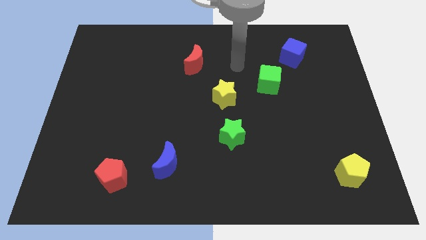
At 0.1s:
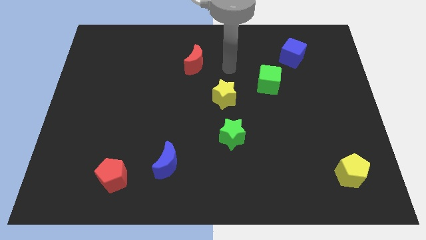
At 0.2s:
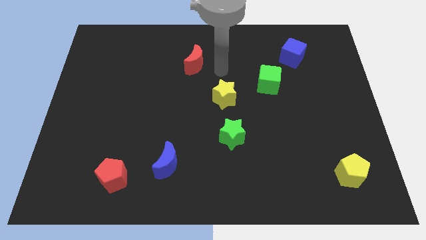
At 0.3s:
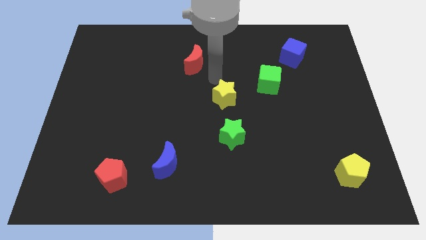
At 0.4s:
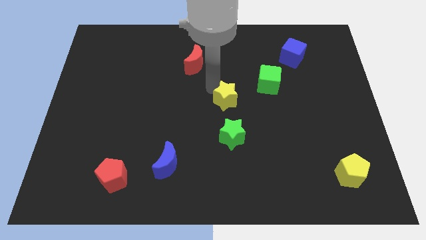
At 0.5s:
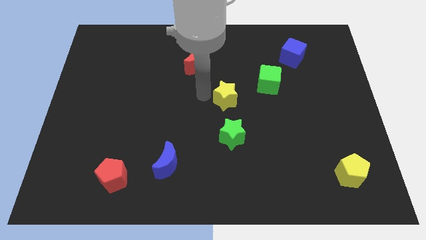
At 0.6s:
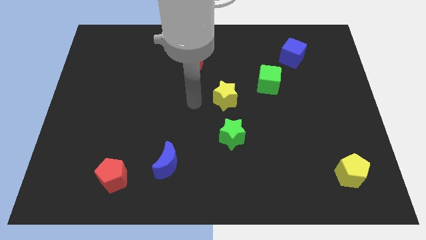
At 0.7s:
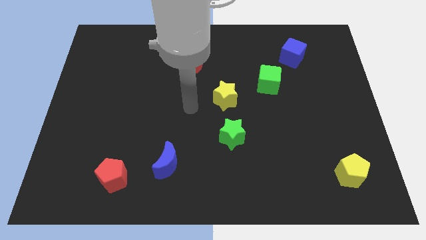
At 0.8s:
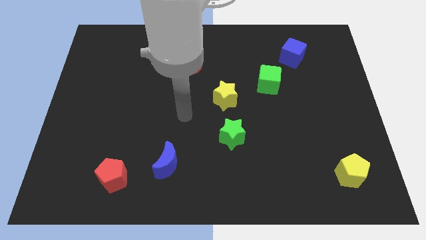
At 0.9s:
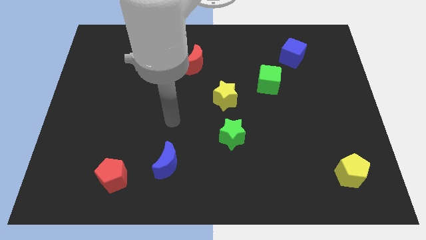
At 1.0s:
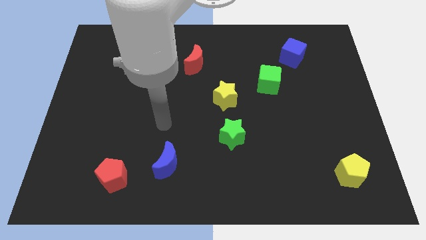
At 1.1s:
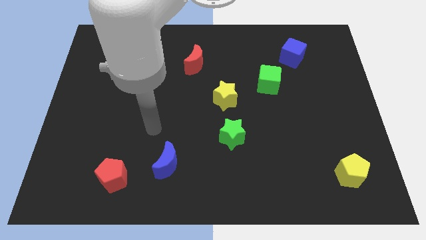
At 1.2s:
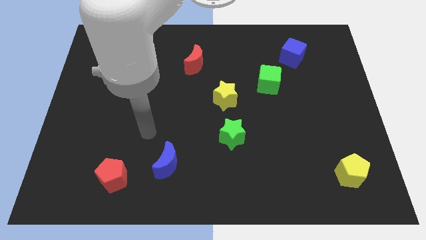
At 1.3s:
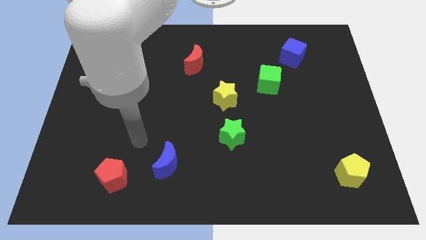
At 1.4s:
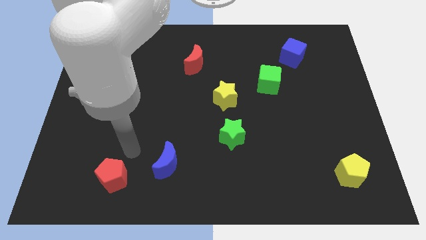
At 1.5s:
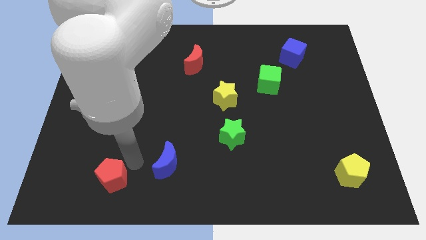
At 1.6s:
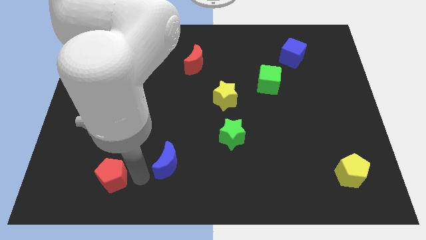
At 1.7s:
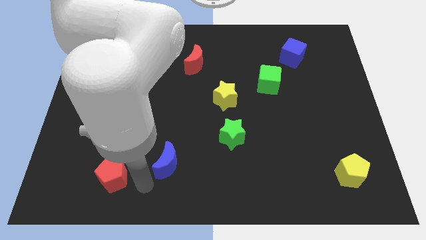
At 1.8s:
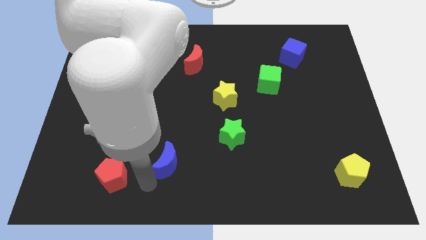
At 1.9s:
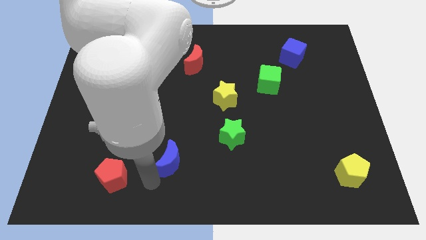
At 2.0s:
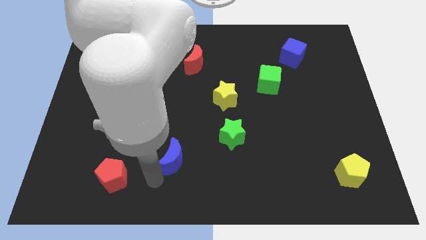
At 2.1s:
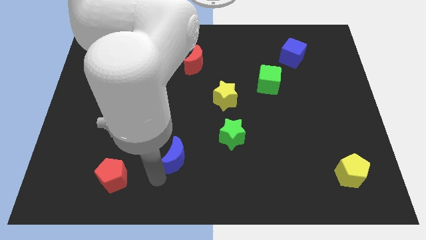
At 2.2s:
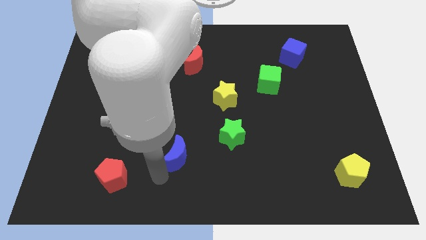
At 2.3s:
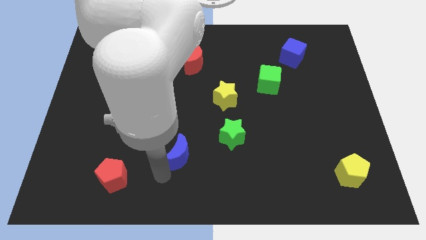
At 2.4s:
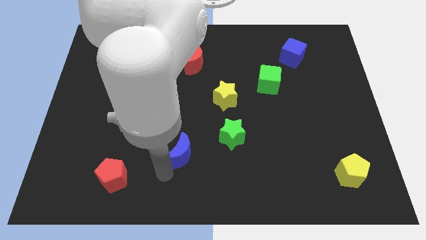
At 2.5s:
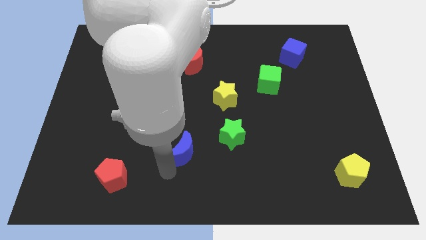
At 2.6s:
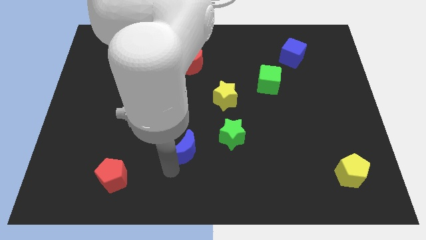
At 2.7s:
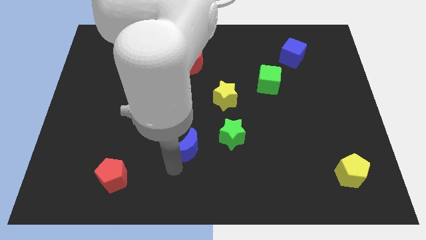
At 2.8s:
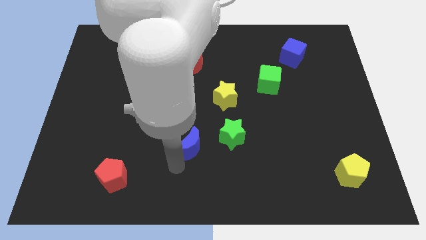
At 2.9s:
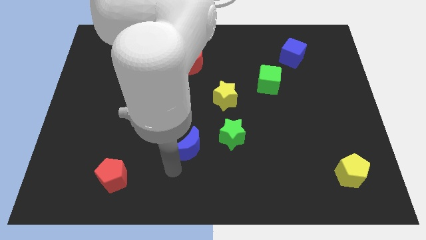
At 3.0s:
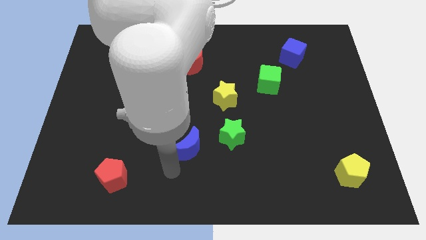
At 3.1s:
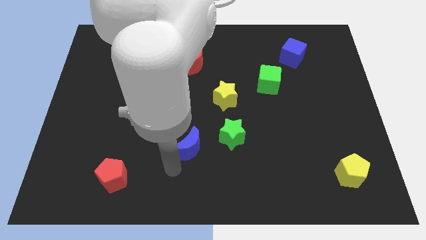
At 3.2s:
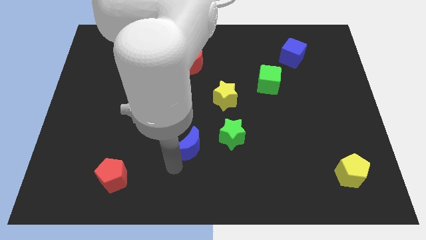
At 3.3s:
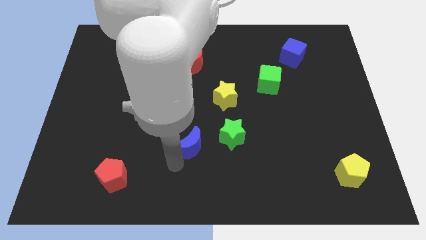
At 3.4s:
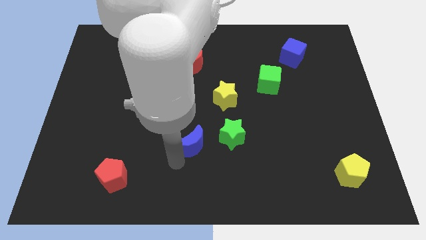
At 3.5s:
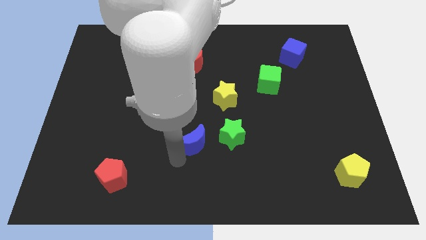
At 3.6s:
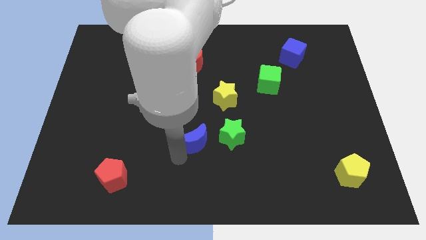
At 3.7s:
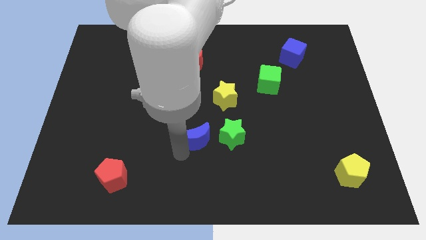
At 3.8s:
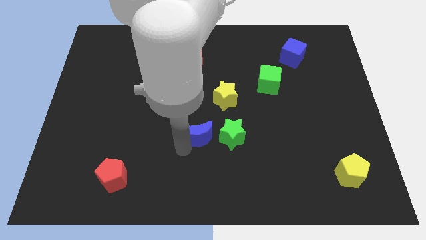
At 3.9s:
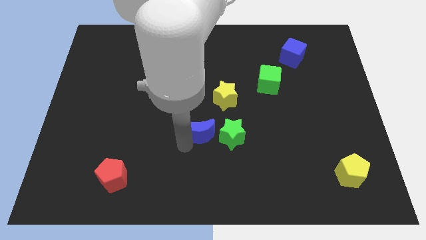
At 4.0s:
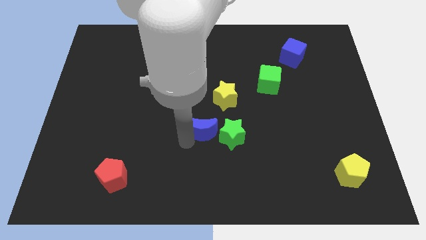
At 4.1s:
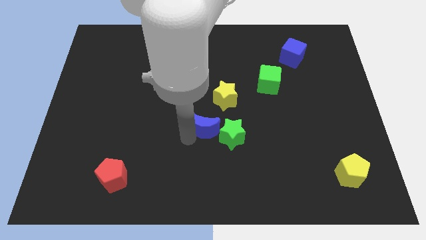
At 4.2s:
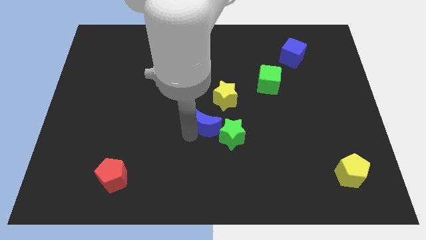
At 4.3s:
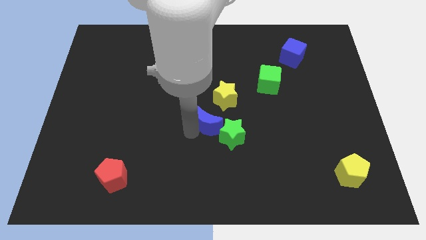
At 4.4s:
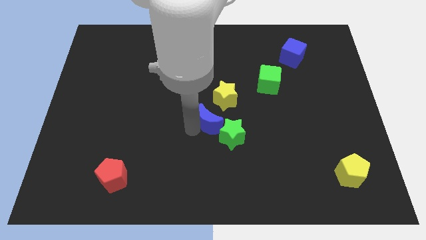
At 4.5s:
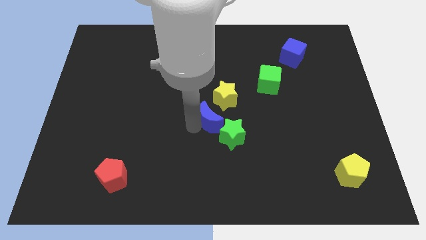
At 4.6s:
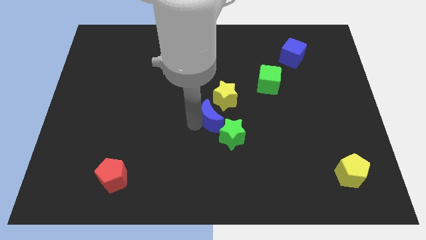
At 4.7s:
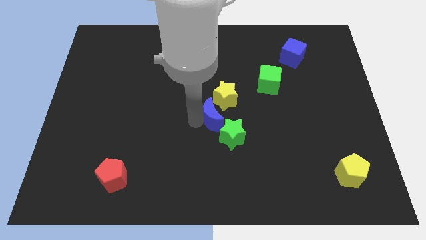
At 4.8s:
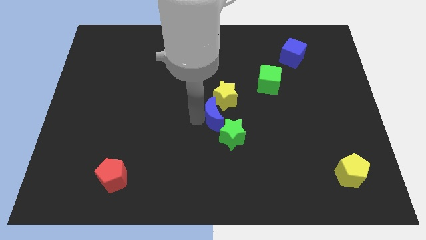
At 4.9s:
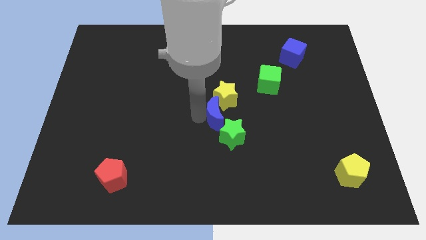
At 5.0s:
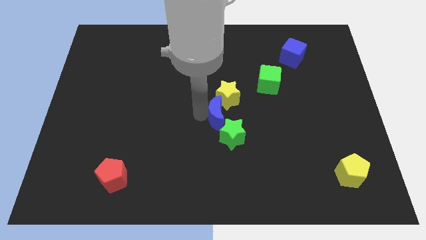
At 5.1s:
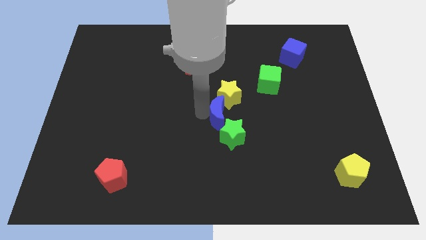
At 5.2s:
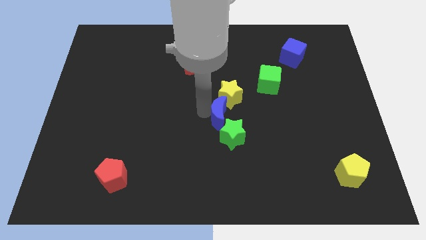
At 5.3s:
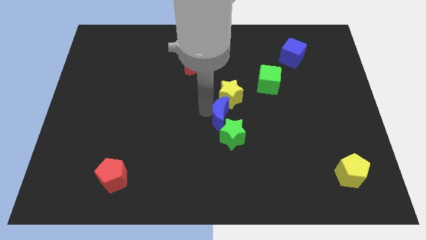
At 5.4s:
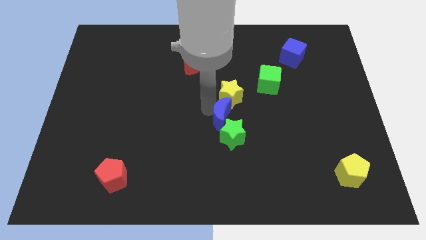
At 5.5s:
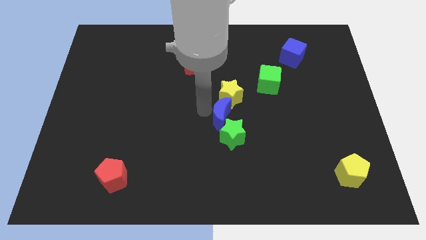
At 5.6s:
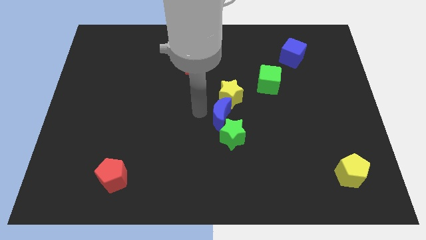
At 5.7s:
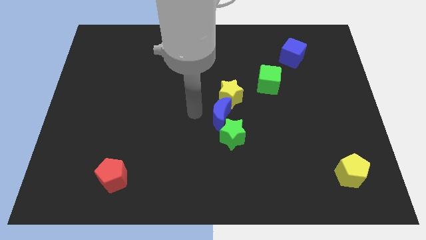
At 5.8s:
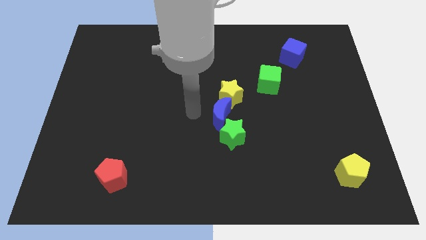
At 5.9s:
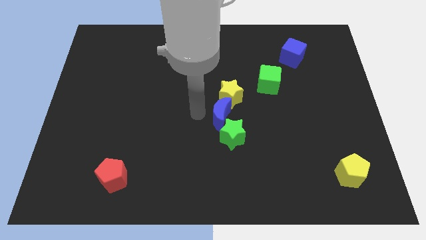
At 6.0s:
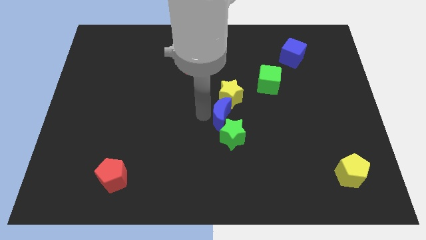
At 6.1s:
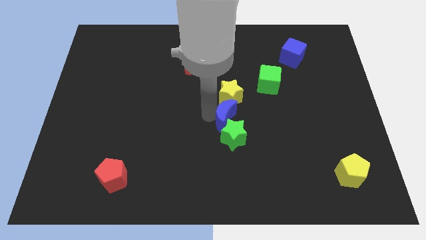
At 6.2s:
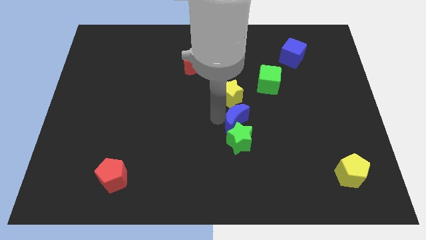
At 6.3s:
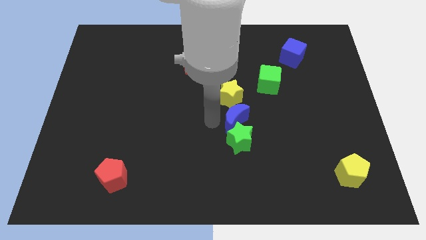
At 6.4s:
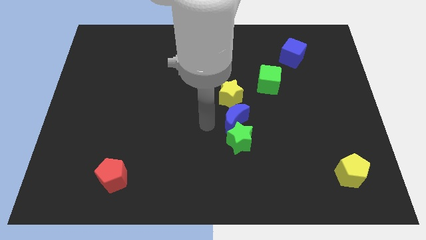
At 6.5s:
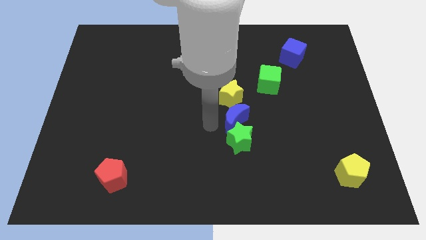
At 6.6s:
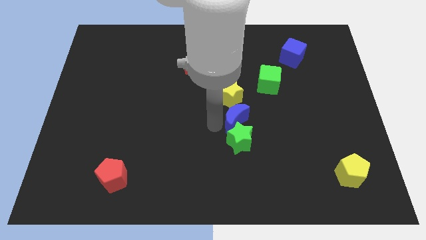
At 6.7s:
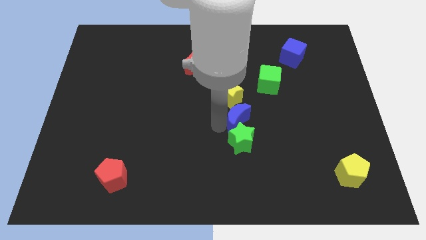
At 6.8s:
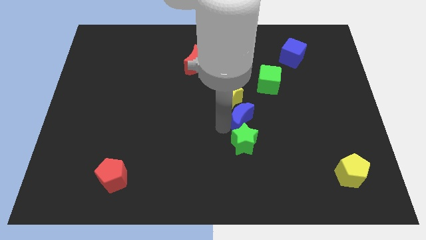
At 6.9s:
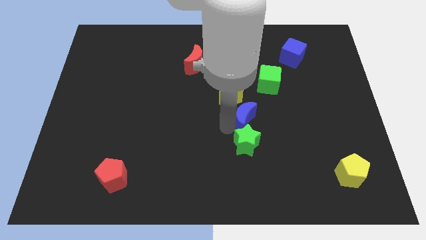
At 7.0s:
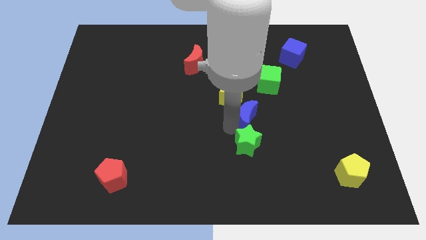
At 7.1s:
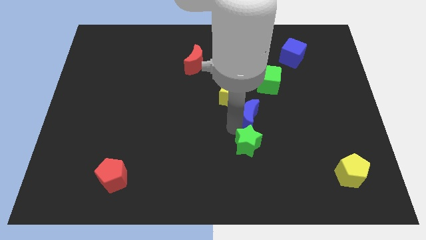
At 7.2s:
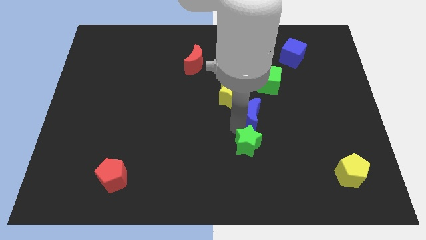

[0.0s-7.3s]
slide the blue moon below the green cube

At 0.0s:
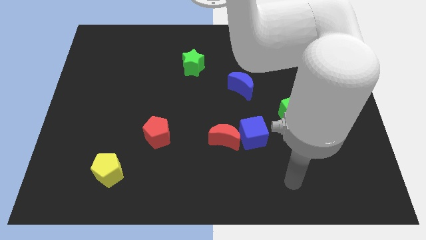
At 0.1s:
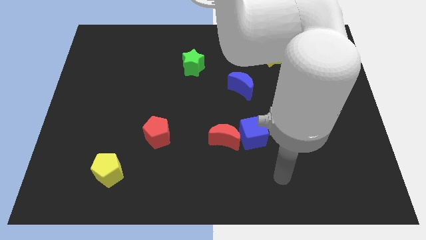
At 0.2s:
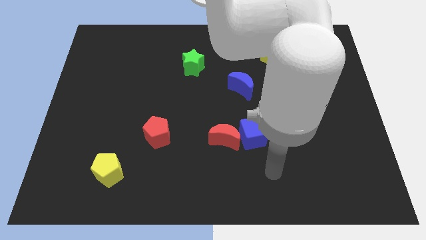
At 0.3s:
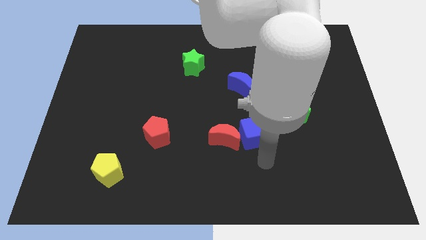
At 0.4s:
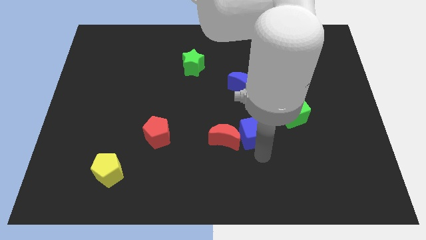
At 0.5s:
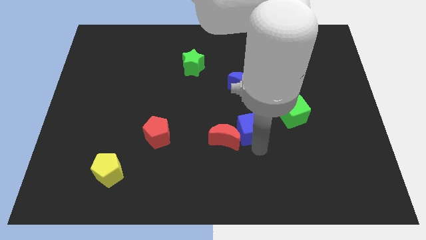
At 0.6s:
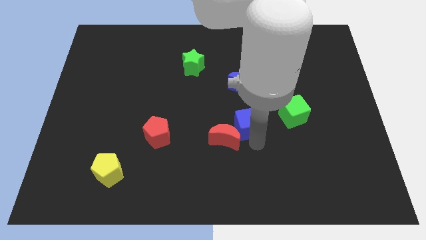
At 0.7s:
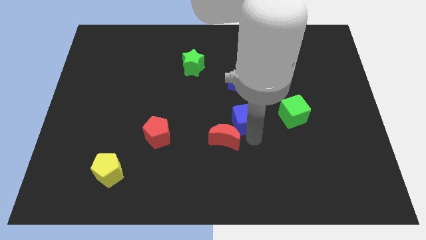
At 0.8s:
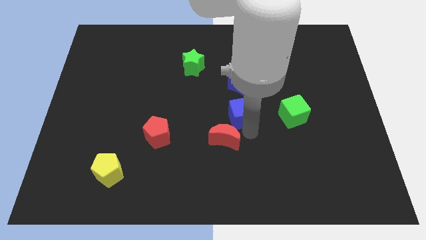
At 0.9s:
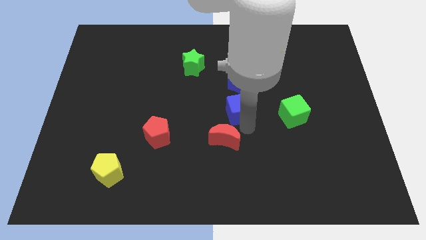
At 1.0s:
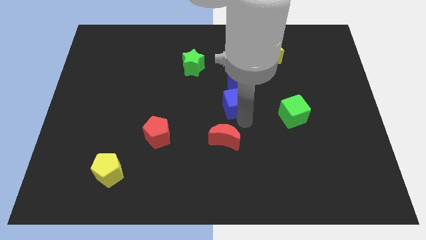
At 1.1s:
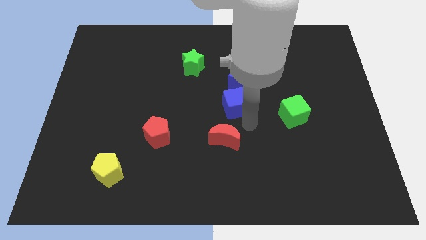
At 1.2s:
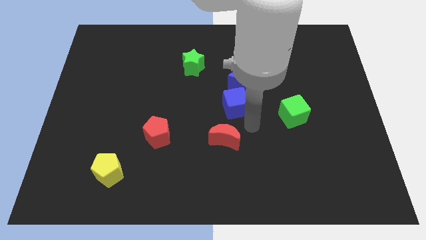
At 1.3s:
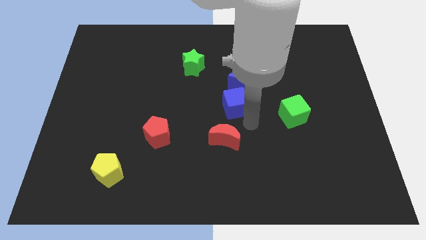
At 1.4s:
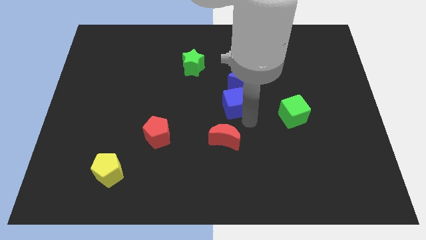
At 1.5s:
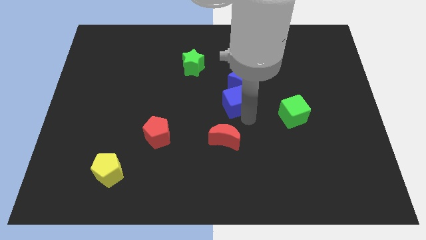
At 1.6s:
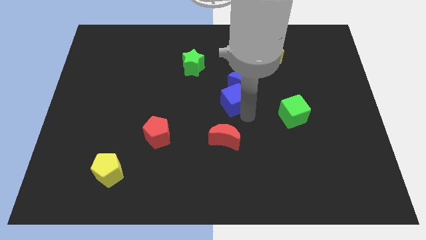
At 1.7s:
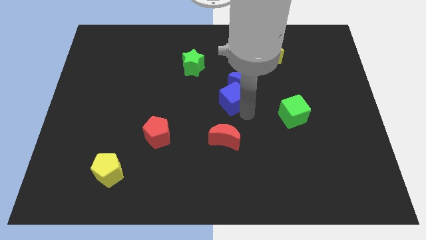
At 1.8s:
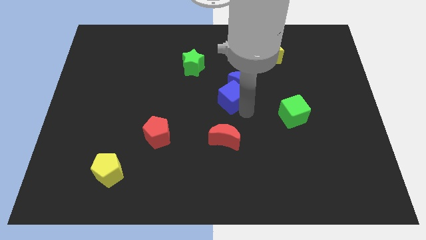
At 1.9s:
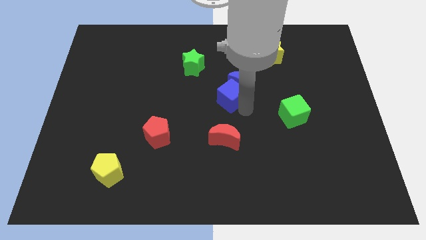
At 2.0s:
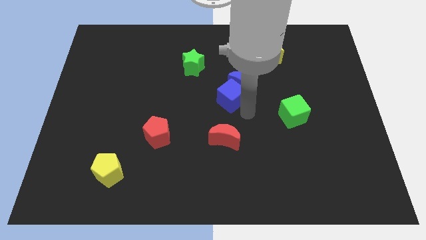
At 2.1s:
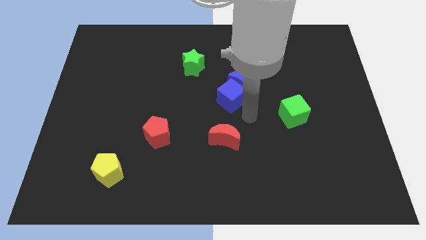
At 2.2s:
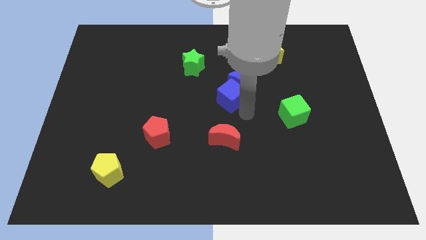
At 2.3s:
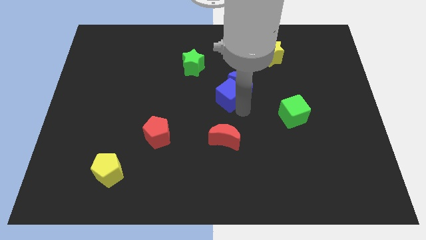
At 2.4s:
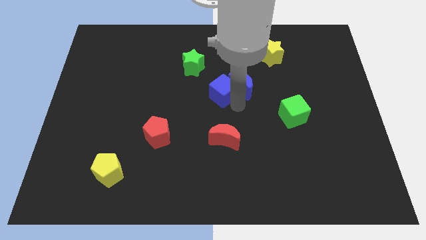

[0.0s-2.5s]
slide the blue cube to the bottom right side of the green star
